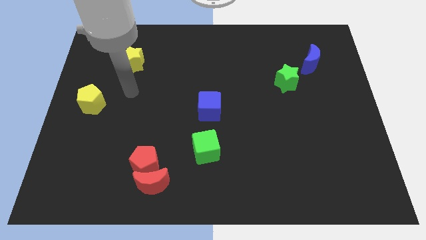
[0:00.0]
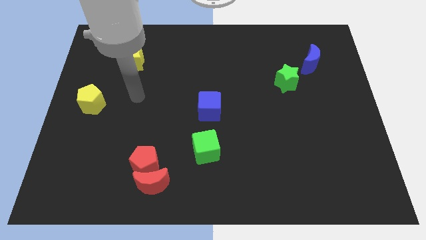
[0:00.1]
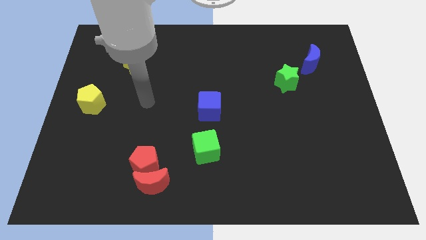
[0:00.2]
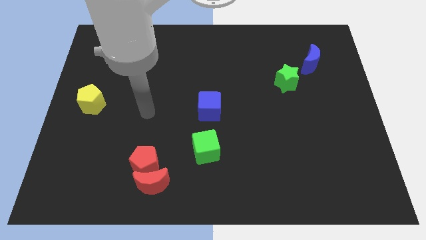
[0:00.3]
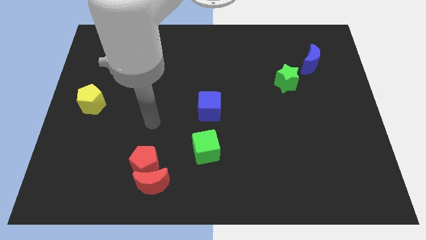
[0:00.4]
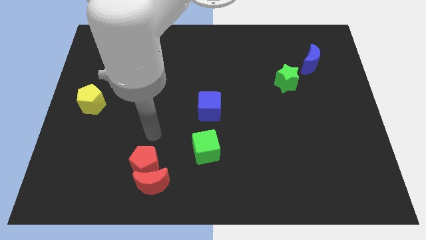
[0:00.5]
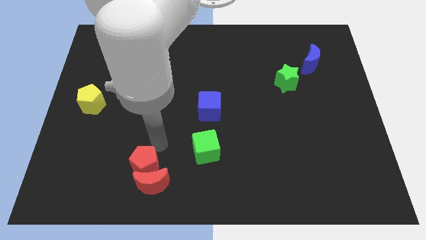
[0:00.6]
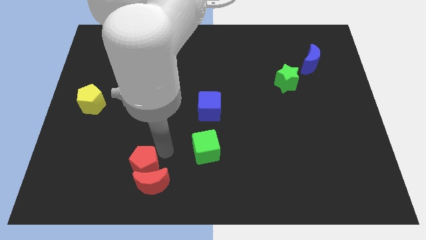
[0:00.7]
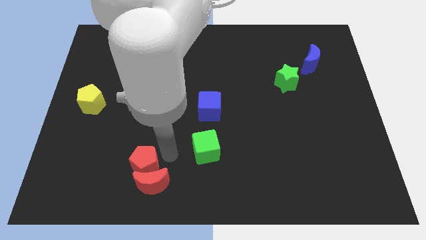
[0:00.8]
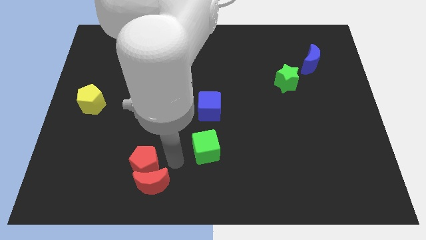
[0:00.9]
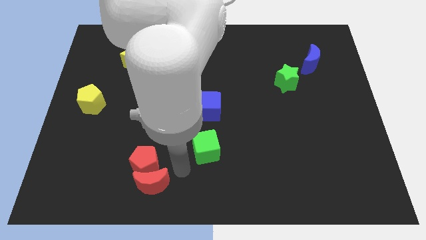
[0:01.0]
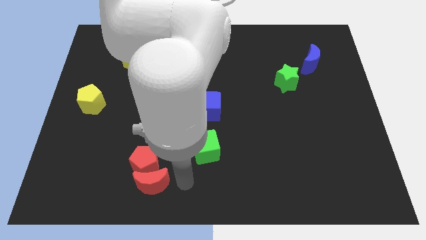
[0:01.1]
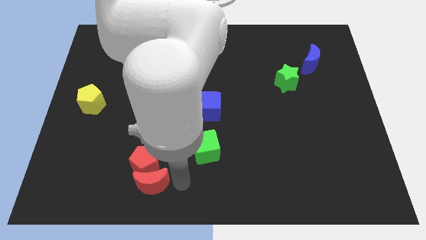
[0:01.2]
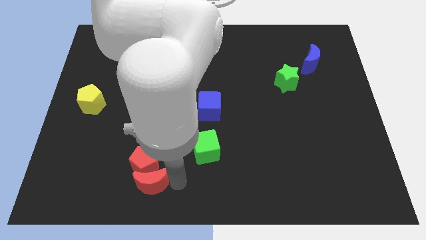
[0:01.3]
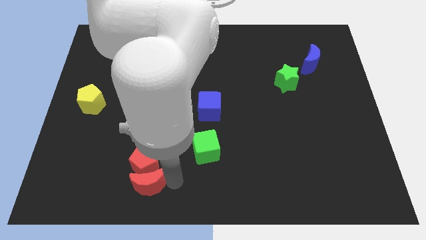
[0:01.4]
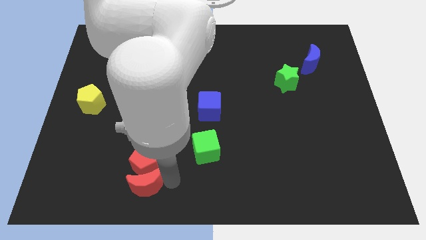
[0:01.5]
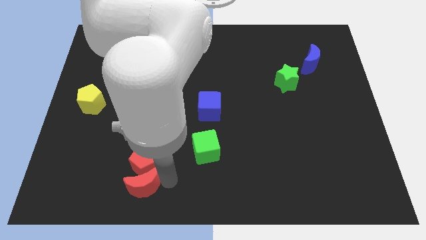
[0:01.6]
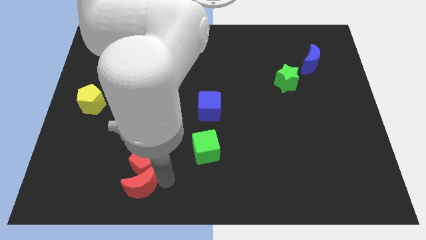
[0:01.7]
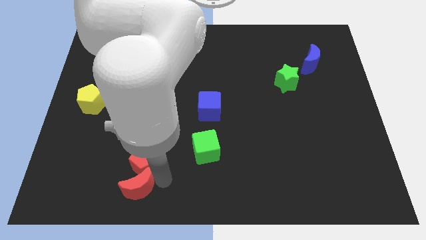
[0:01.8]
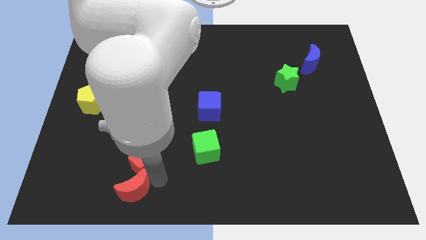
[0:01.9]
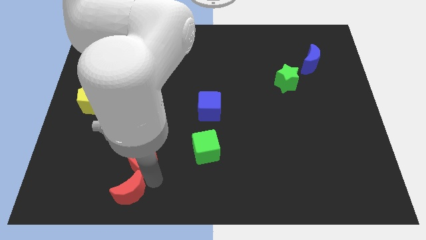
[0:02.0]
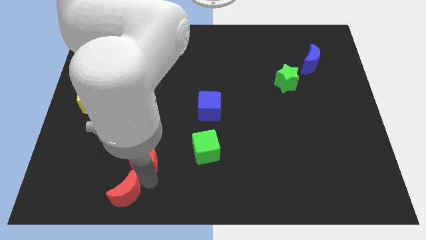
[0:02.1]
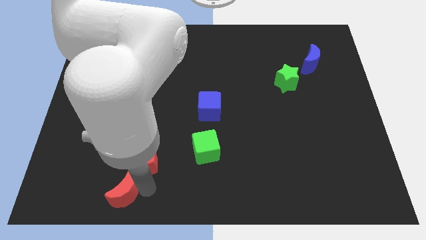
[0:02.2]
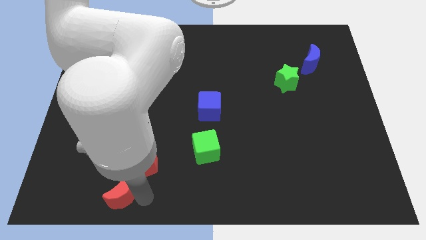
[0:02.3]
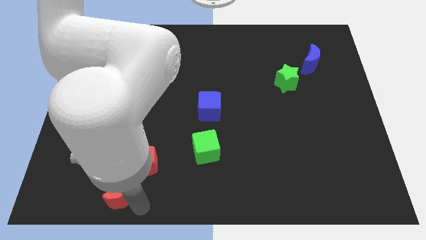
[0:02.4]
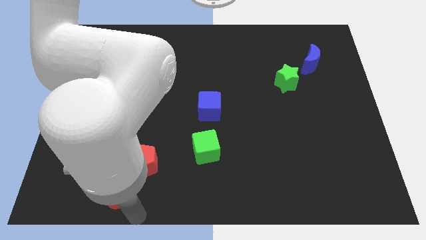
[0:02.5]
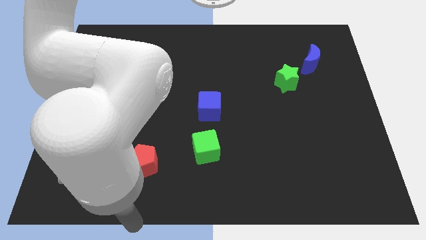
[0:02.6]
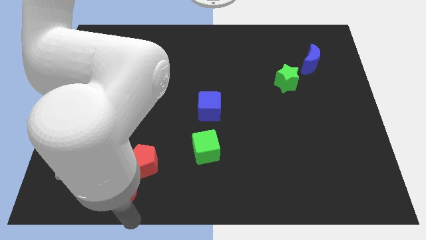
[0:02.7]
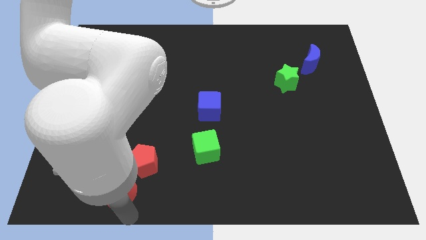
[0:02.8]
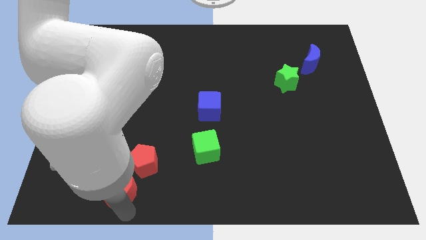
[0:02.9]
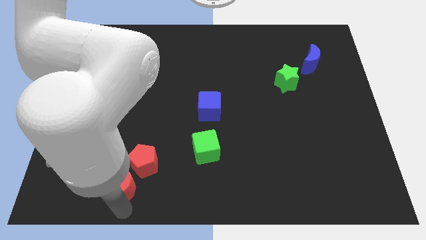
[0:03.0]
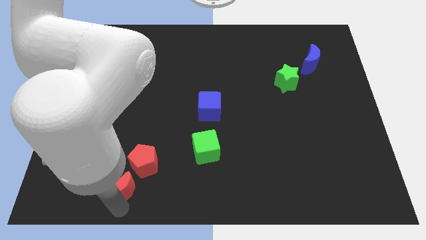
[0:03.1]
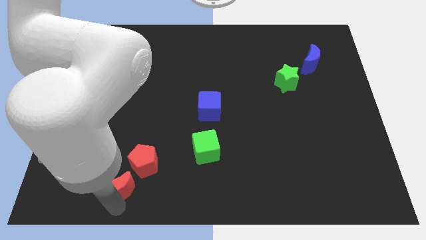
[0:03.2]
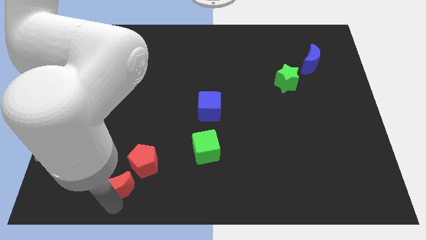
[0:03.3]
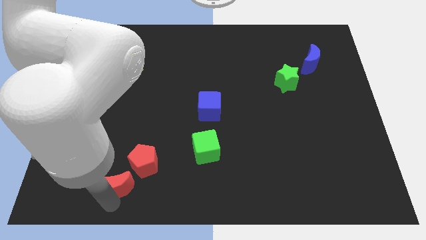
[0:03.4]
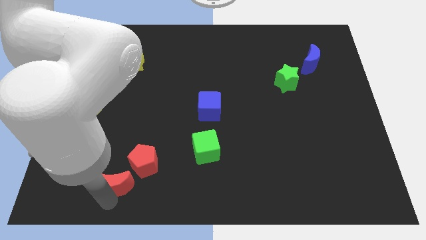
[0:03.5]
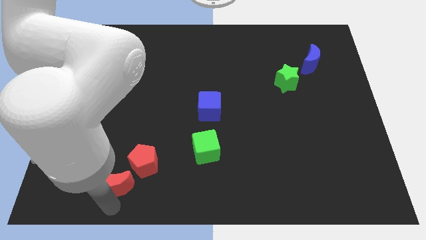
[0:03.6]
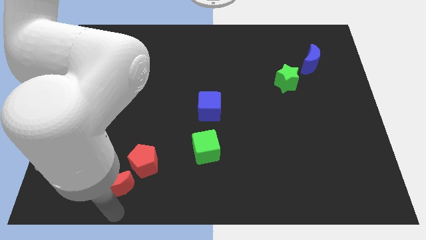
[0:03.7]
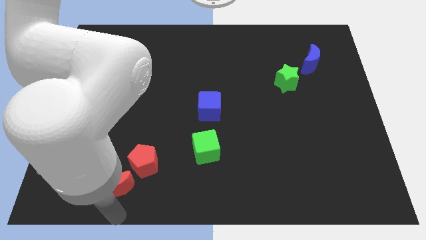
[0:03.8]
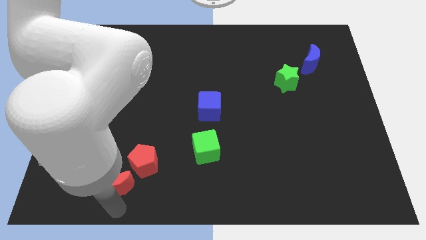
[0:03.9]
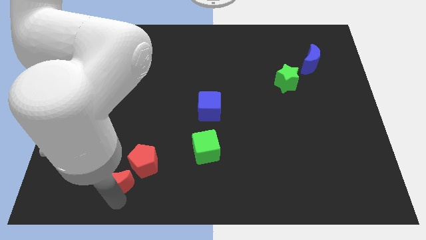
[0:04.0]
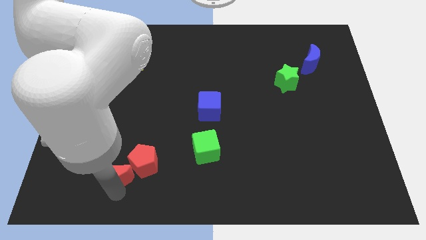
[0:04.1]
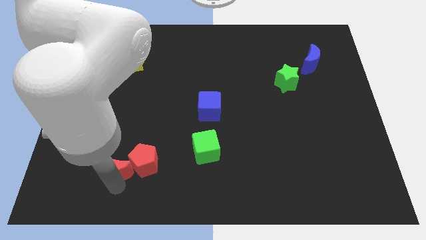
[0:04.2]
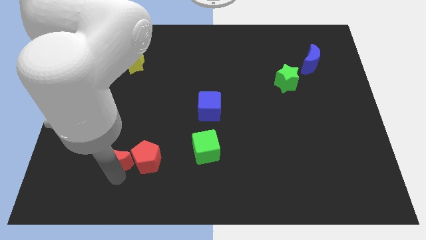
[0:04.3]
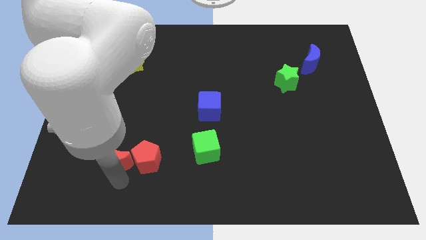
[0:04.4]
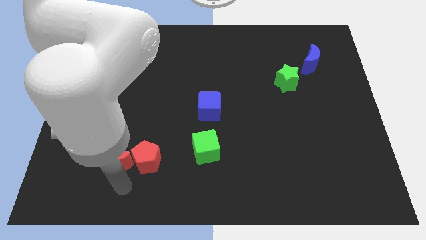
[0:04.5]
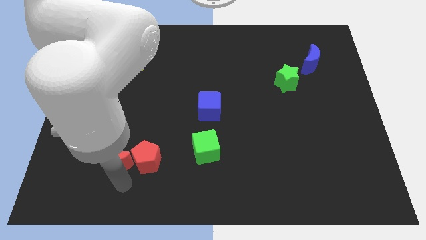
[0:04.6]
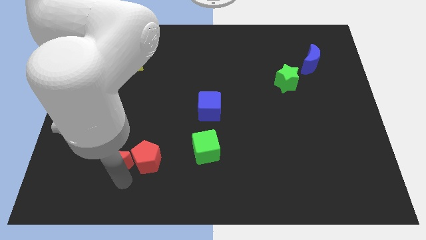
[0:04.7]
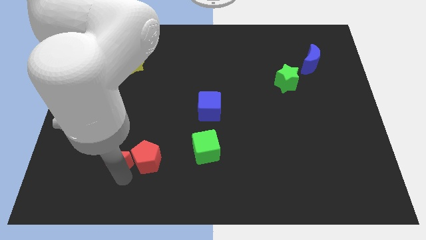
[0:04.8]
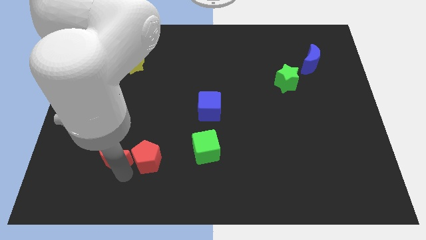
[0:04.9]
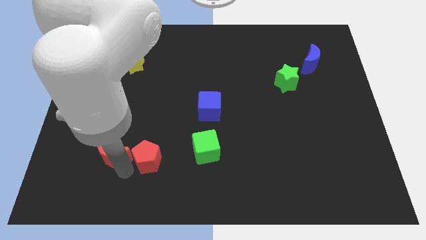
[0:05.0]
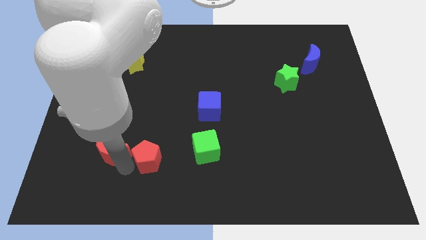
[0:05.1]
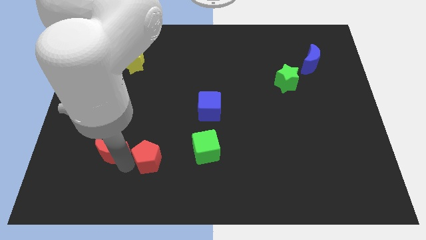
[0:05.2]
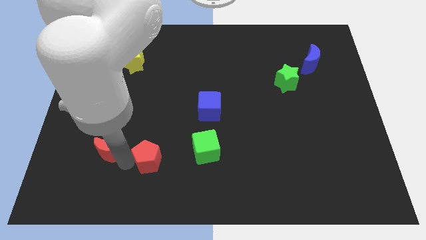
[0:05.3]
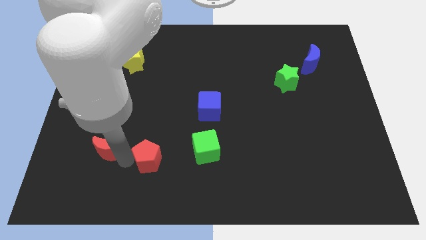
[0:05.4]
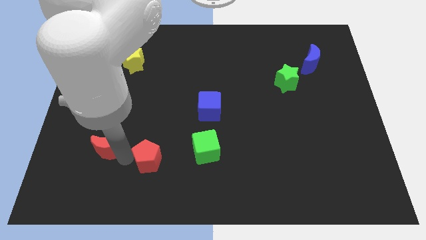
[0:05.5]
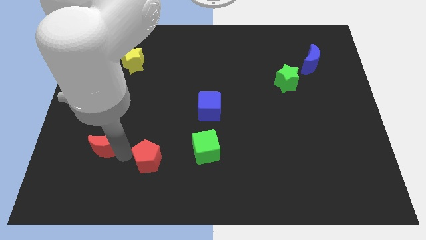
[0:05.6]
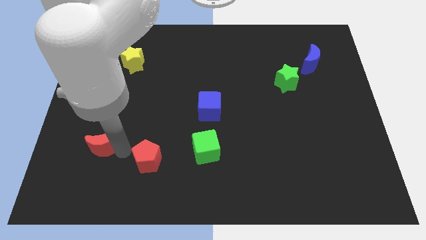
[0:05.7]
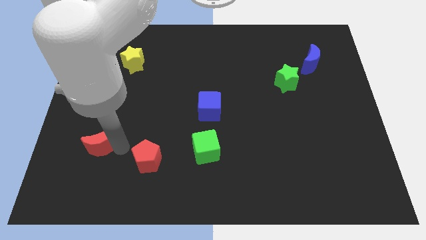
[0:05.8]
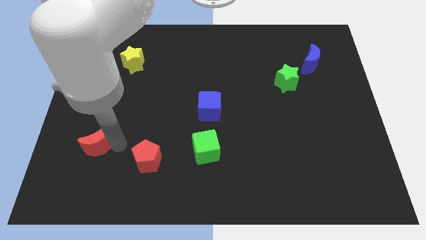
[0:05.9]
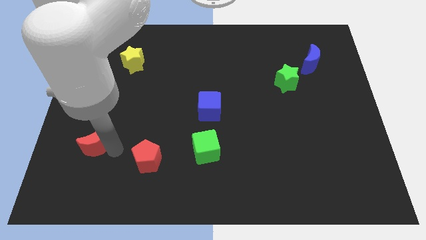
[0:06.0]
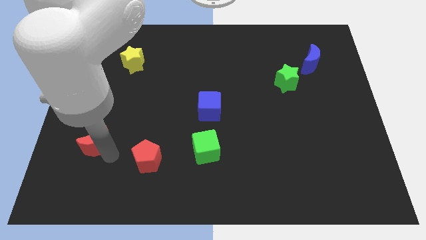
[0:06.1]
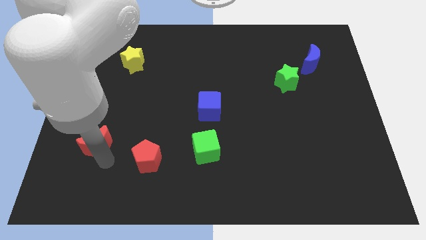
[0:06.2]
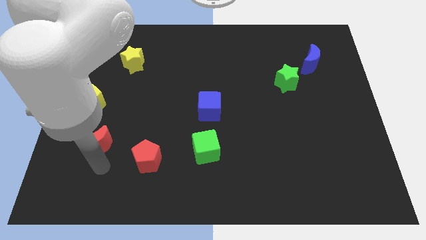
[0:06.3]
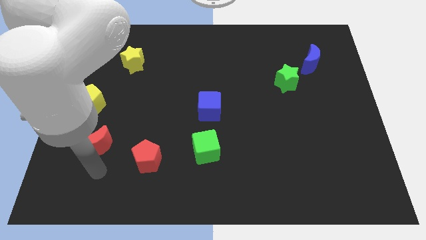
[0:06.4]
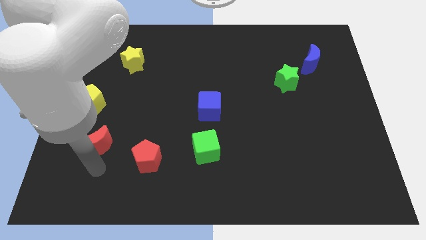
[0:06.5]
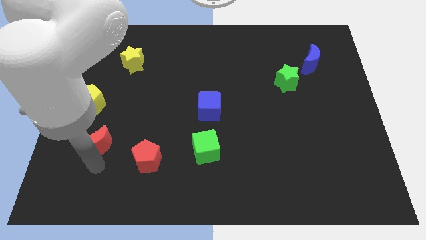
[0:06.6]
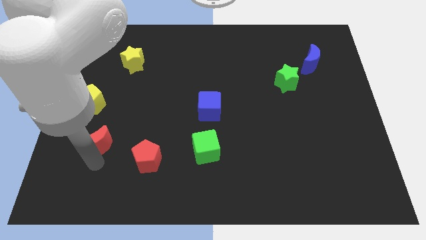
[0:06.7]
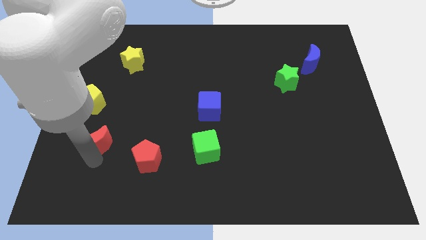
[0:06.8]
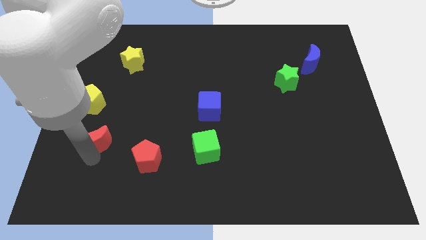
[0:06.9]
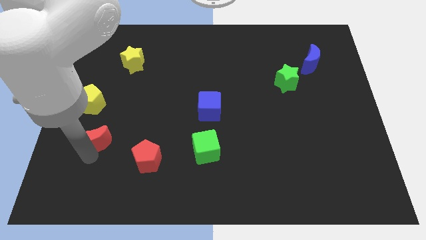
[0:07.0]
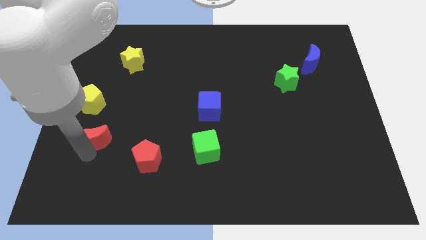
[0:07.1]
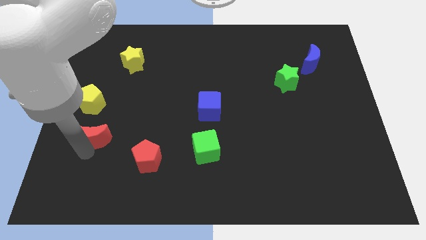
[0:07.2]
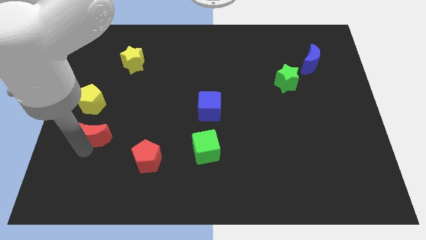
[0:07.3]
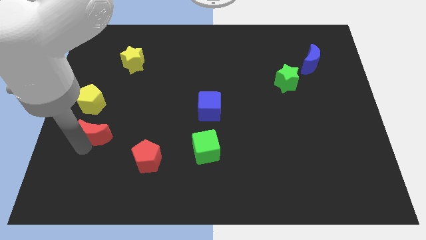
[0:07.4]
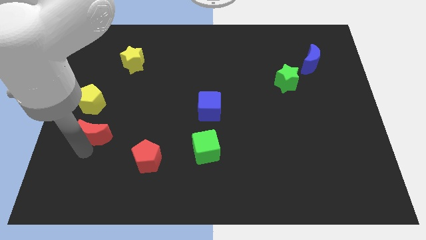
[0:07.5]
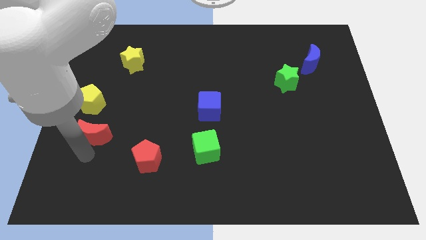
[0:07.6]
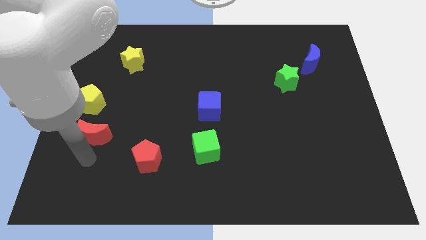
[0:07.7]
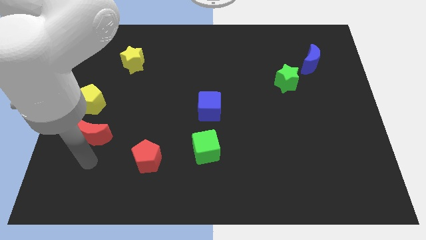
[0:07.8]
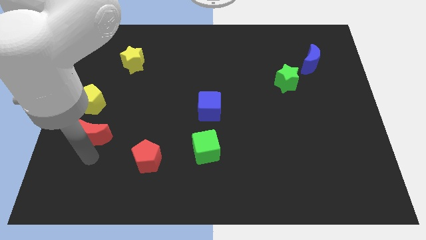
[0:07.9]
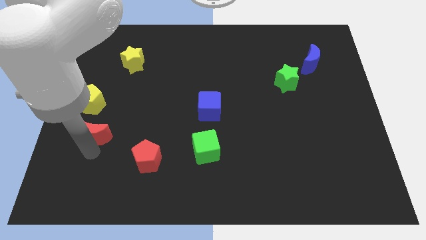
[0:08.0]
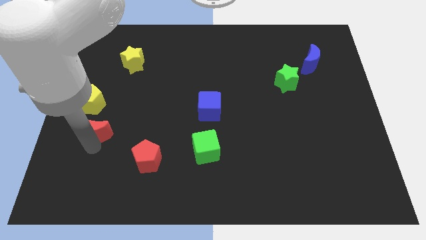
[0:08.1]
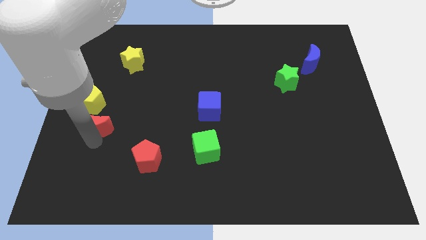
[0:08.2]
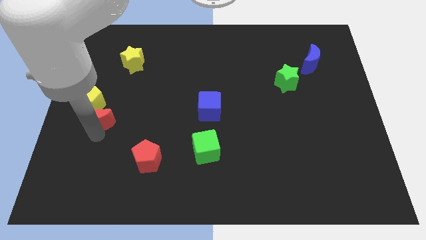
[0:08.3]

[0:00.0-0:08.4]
put the red moon next to the yellow pentagon
